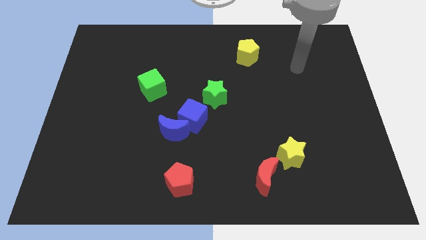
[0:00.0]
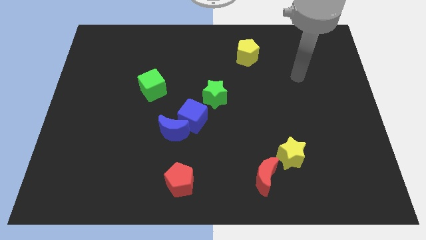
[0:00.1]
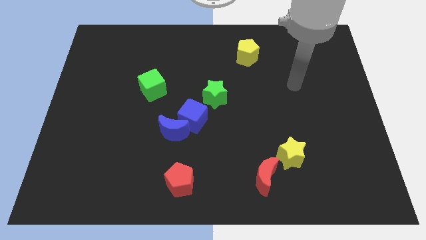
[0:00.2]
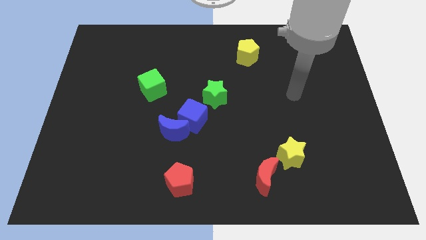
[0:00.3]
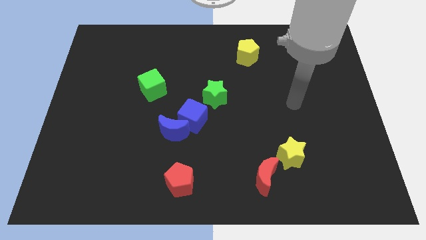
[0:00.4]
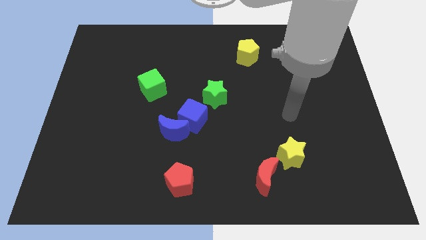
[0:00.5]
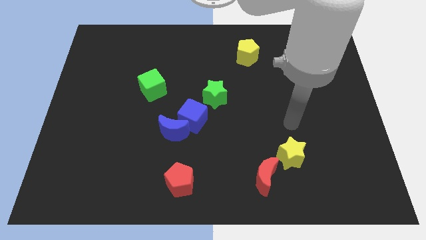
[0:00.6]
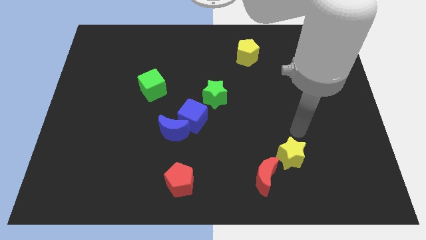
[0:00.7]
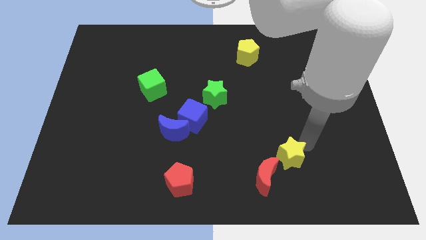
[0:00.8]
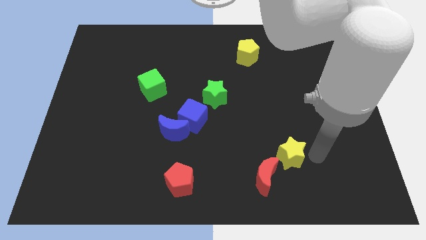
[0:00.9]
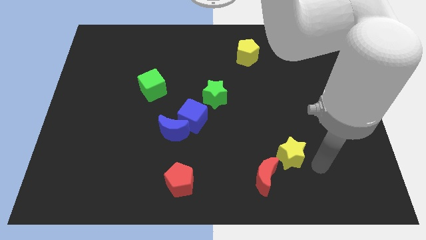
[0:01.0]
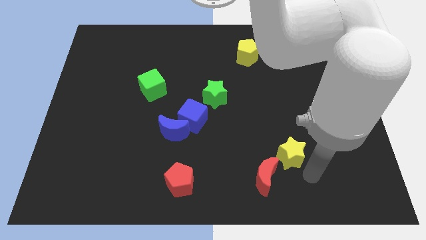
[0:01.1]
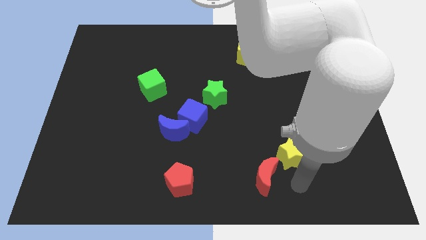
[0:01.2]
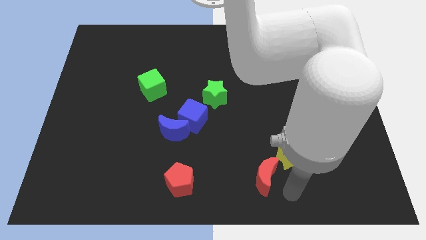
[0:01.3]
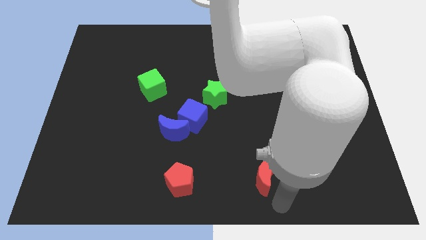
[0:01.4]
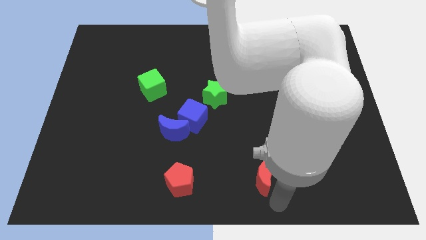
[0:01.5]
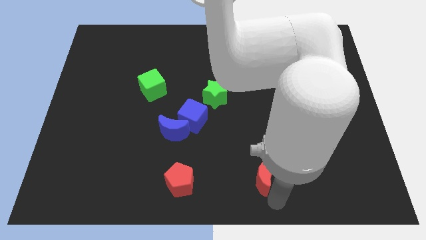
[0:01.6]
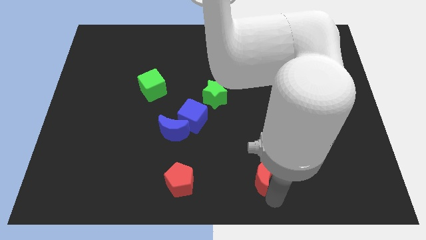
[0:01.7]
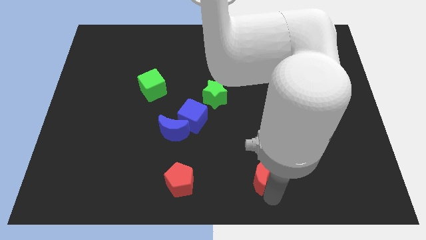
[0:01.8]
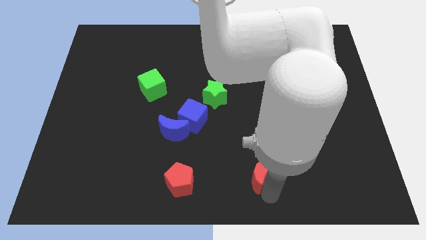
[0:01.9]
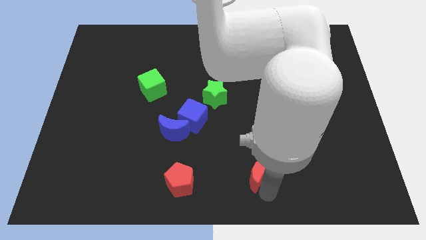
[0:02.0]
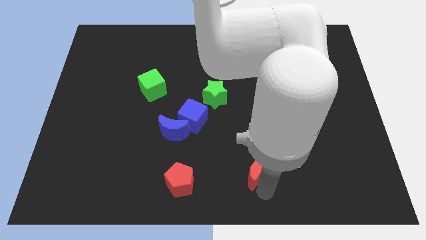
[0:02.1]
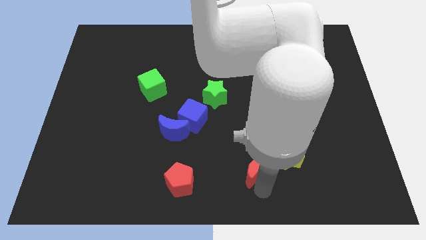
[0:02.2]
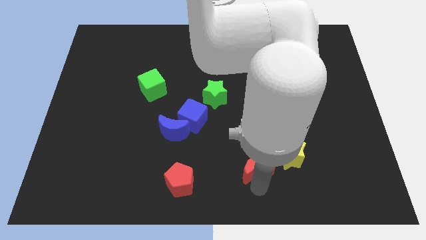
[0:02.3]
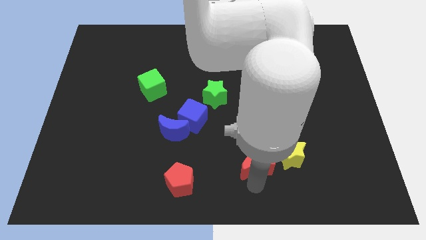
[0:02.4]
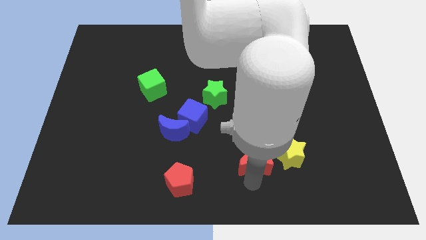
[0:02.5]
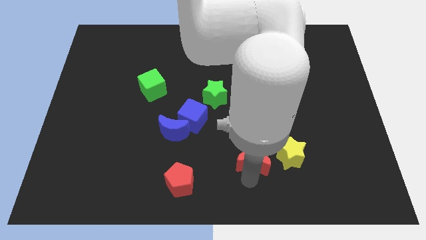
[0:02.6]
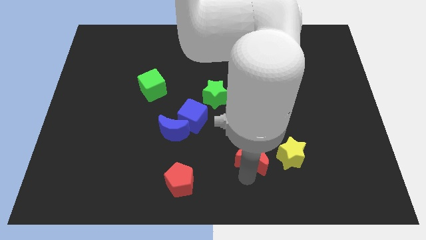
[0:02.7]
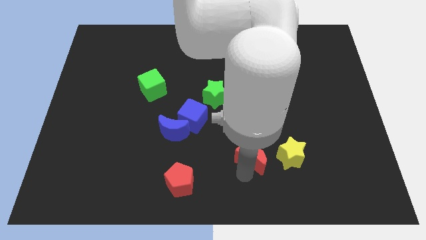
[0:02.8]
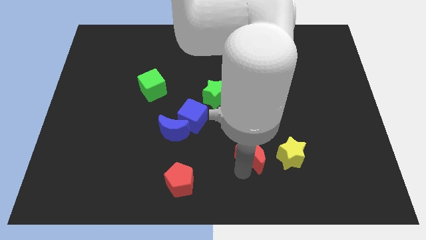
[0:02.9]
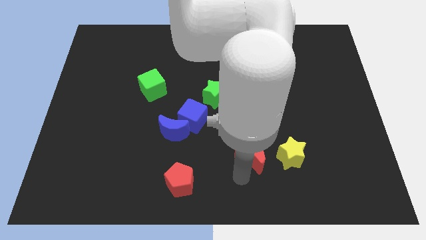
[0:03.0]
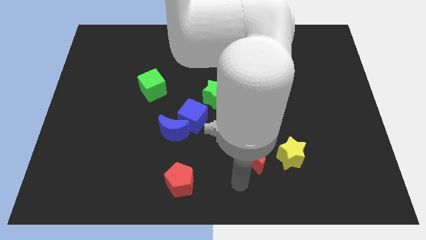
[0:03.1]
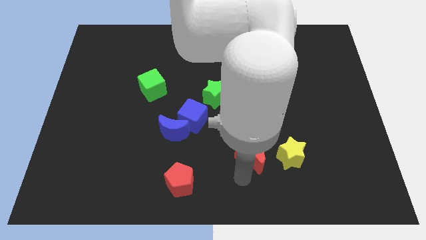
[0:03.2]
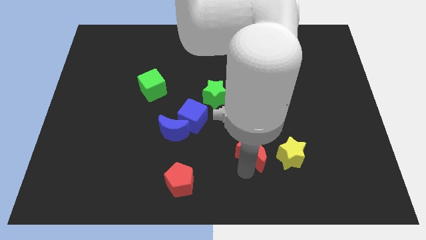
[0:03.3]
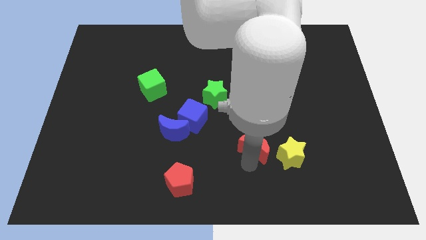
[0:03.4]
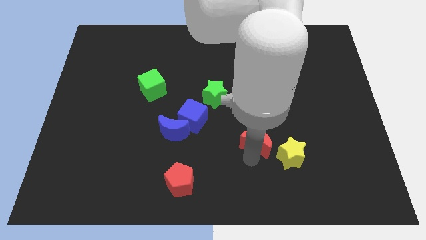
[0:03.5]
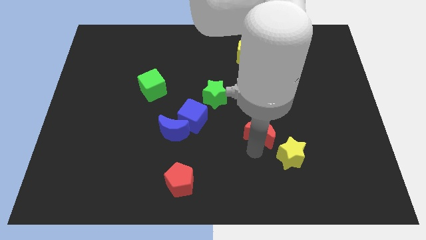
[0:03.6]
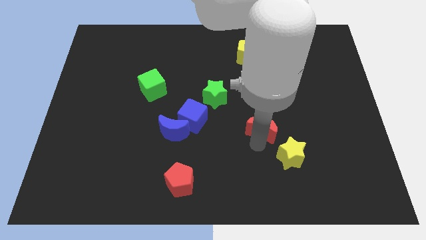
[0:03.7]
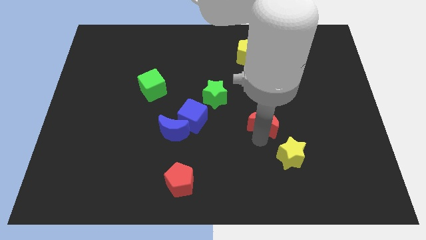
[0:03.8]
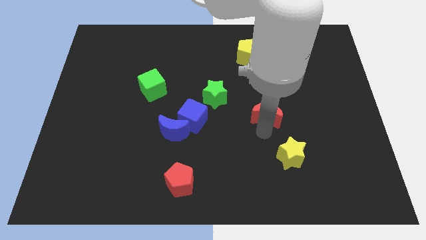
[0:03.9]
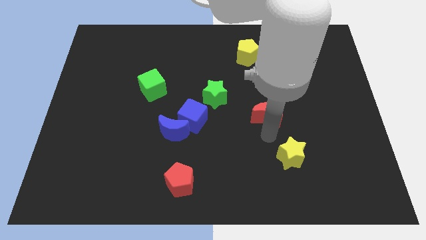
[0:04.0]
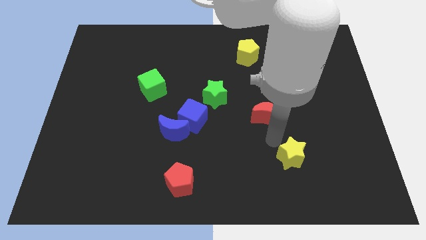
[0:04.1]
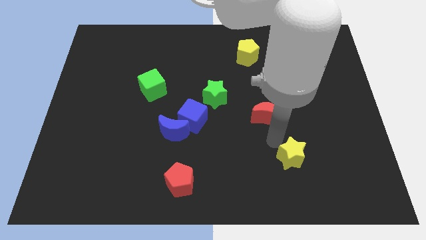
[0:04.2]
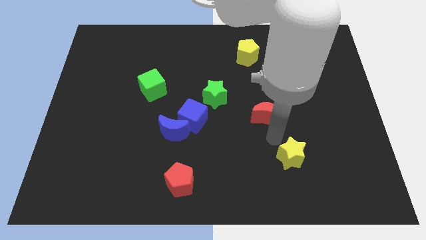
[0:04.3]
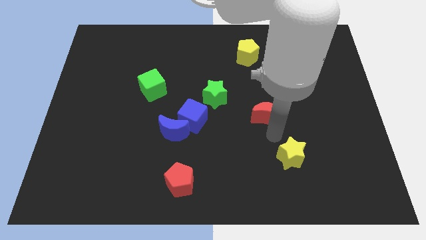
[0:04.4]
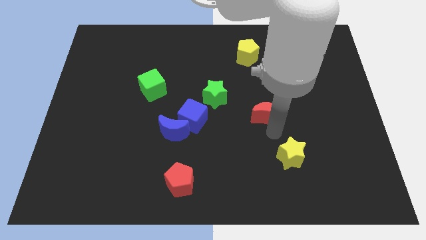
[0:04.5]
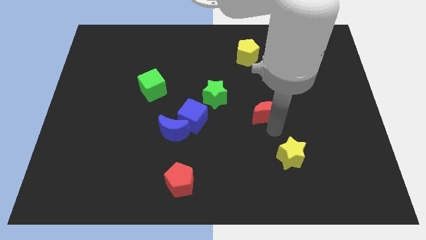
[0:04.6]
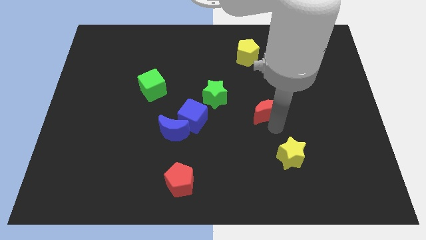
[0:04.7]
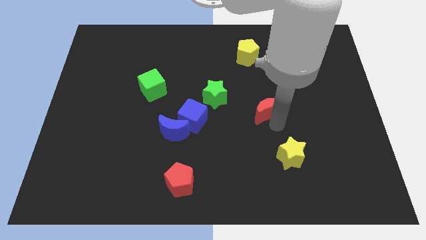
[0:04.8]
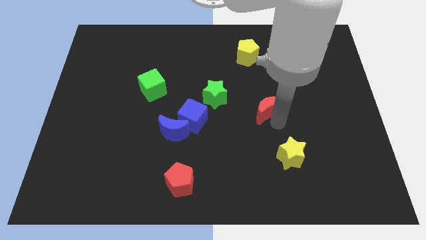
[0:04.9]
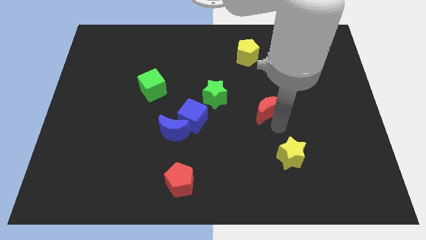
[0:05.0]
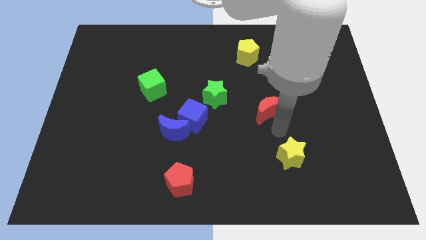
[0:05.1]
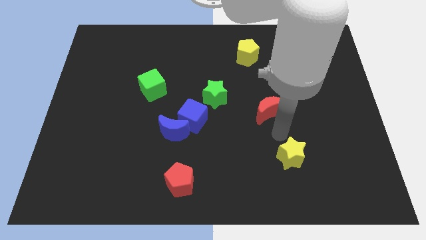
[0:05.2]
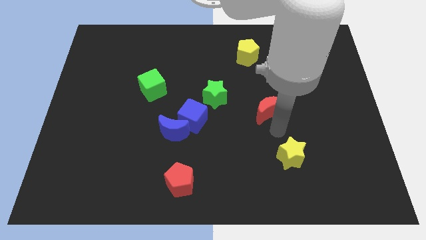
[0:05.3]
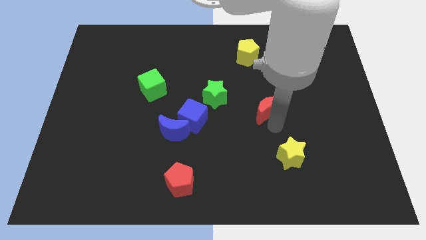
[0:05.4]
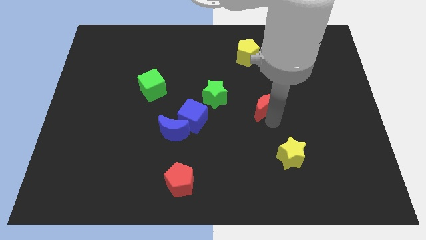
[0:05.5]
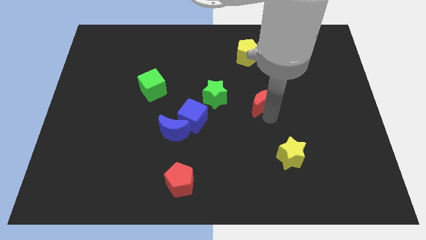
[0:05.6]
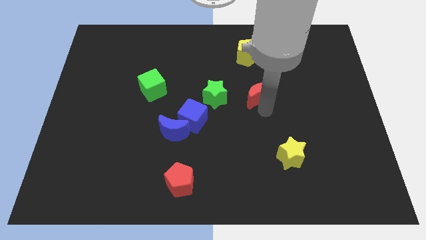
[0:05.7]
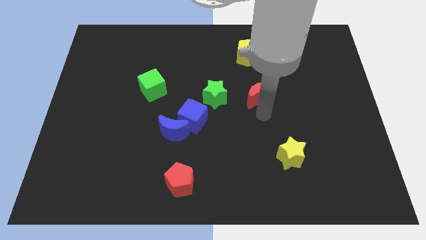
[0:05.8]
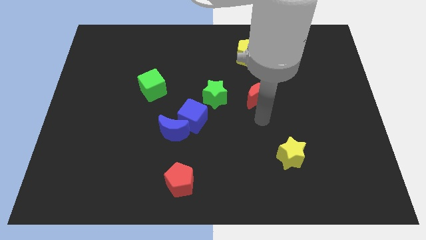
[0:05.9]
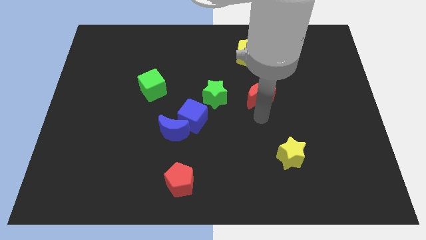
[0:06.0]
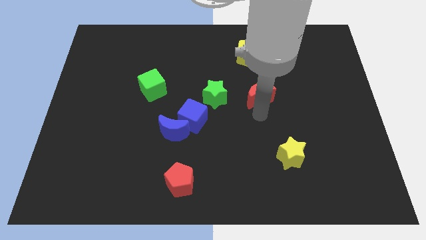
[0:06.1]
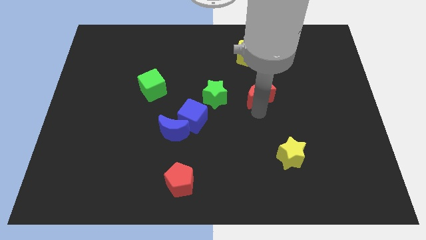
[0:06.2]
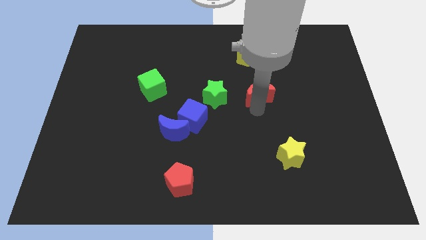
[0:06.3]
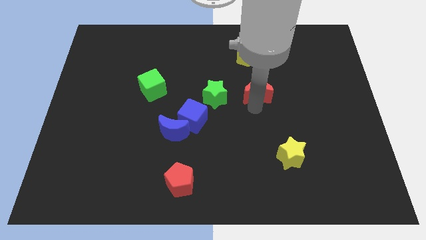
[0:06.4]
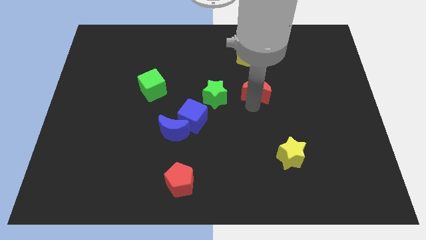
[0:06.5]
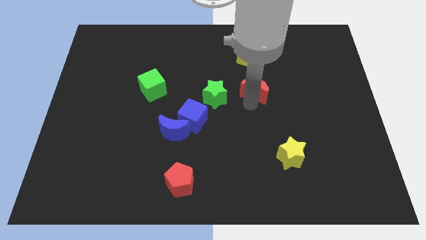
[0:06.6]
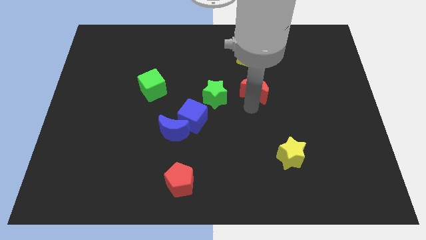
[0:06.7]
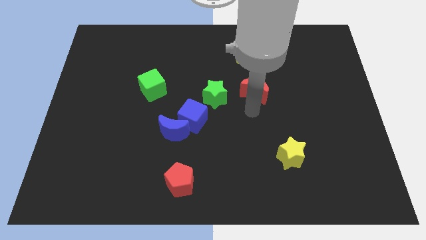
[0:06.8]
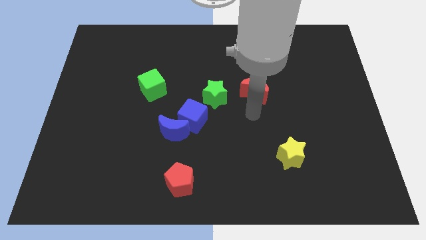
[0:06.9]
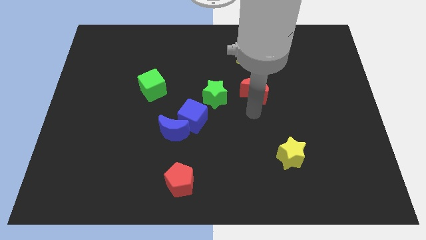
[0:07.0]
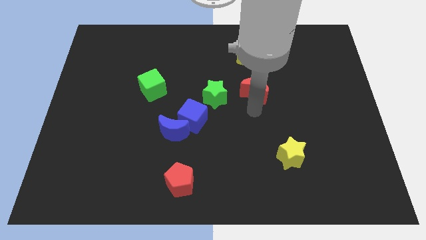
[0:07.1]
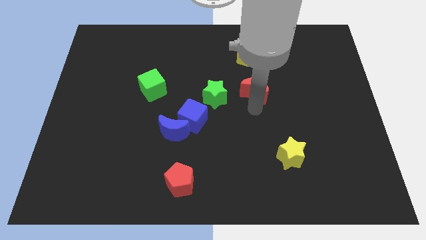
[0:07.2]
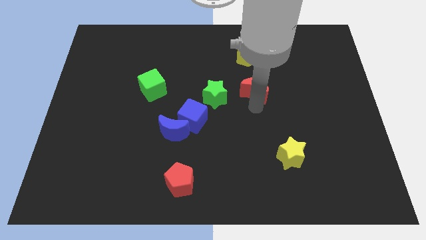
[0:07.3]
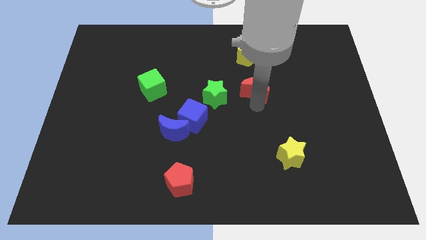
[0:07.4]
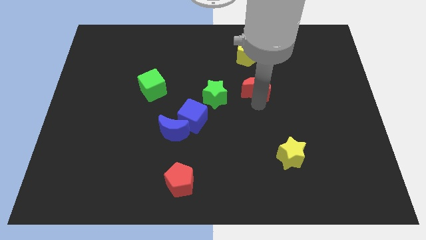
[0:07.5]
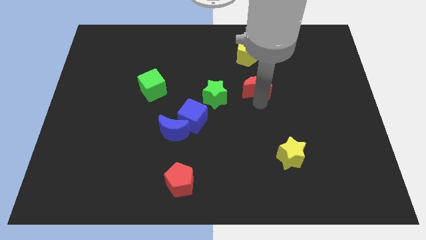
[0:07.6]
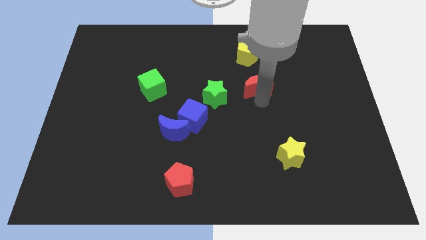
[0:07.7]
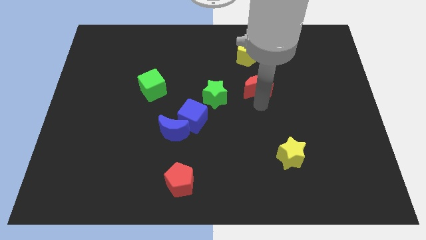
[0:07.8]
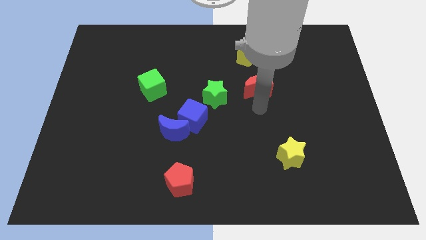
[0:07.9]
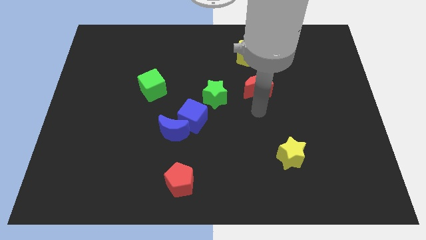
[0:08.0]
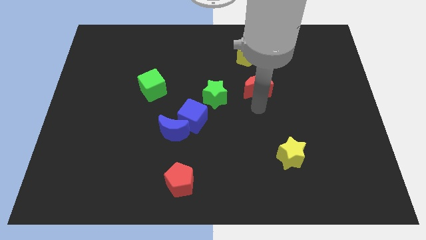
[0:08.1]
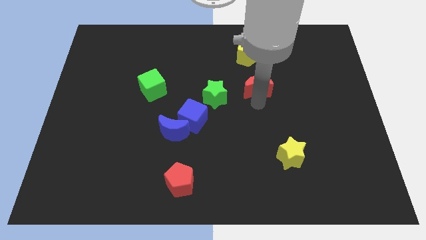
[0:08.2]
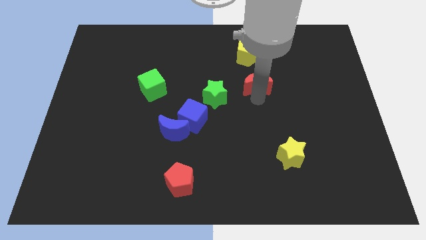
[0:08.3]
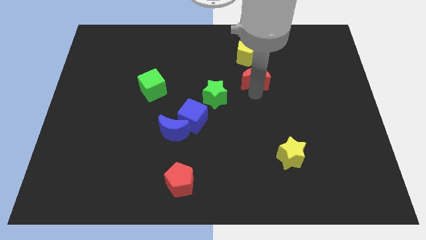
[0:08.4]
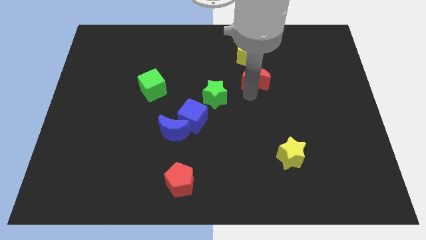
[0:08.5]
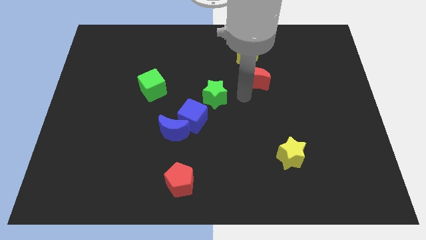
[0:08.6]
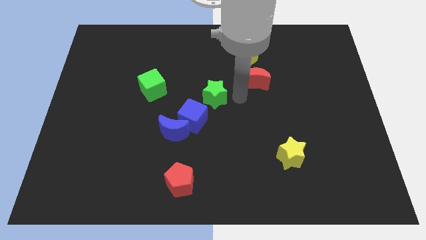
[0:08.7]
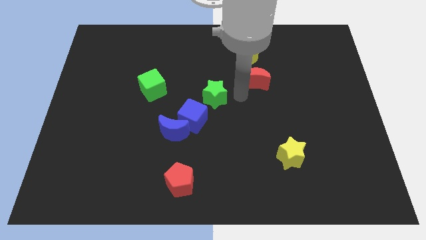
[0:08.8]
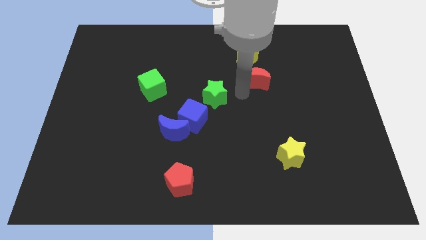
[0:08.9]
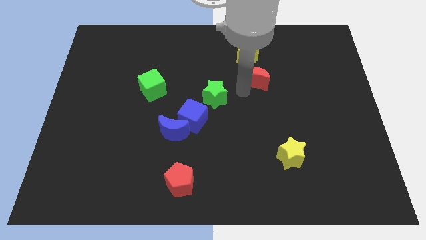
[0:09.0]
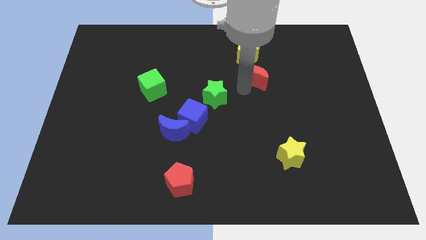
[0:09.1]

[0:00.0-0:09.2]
move the red moon diagonally down and to the right of the yellow pentagon
